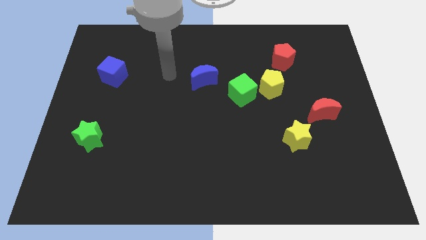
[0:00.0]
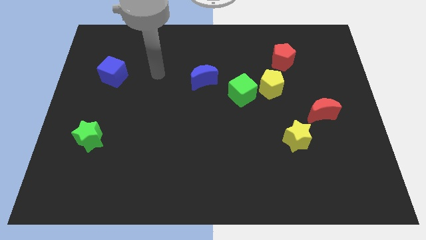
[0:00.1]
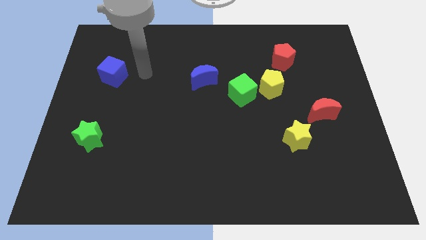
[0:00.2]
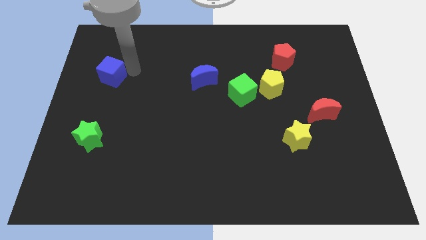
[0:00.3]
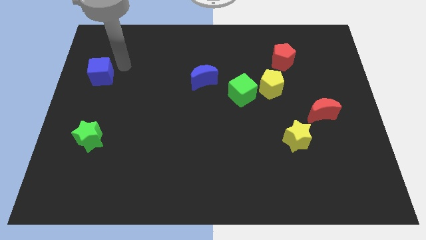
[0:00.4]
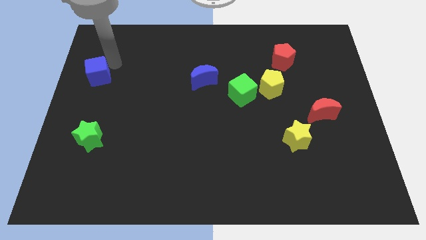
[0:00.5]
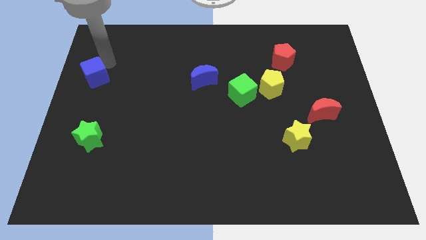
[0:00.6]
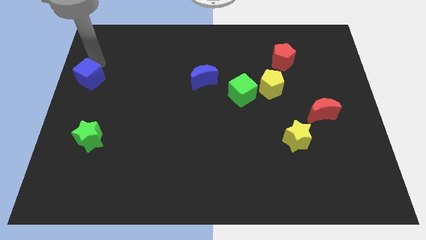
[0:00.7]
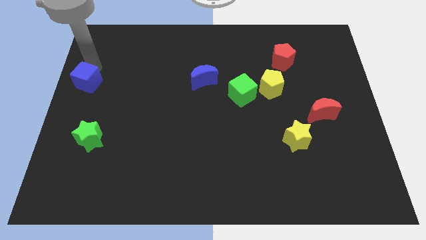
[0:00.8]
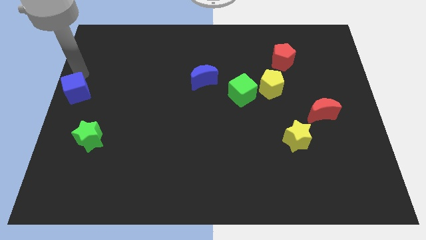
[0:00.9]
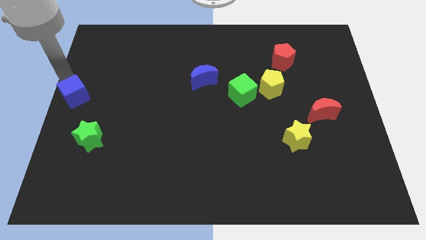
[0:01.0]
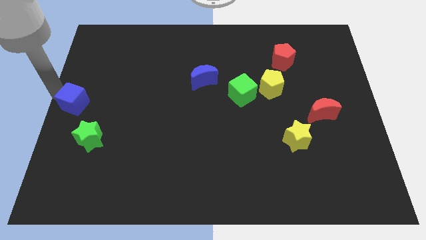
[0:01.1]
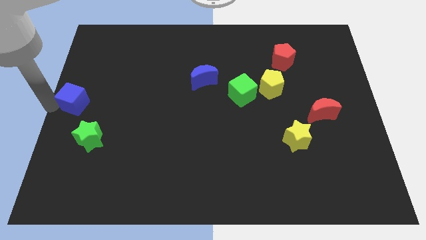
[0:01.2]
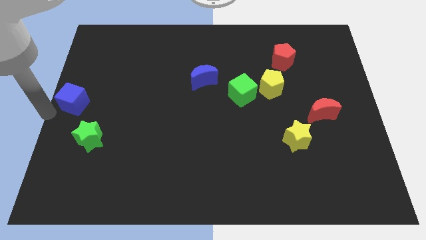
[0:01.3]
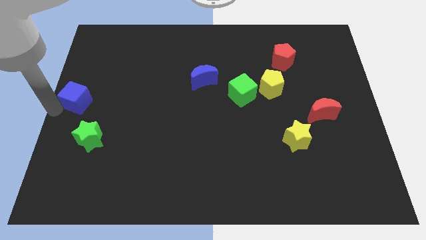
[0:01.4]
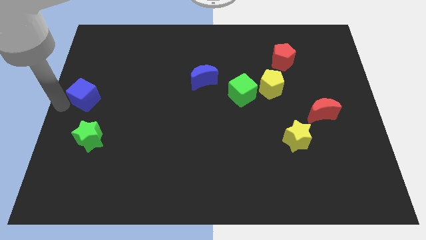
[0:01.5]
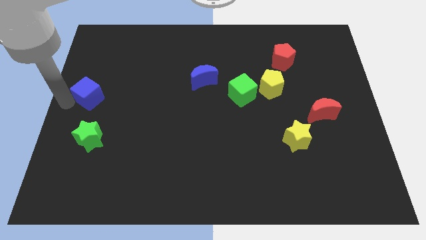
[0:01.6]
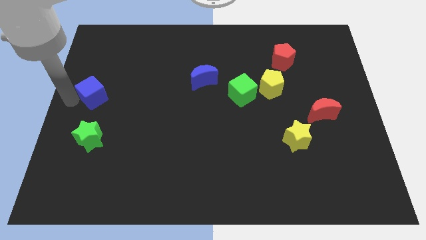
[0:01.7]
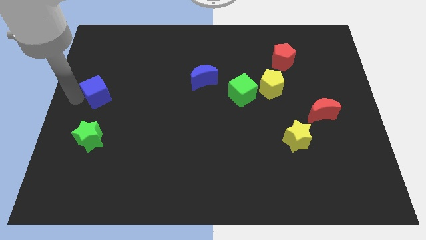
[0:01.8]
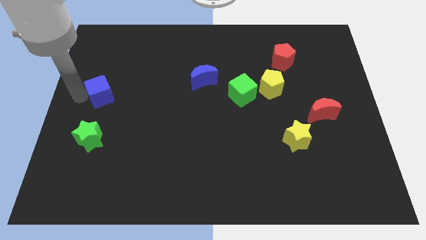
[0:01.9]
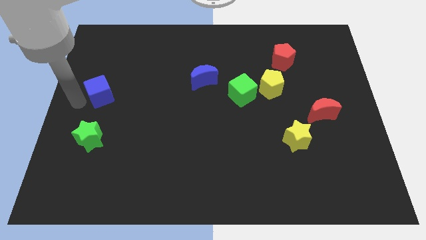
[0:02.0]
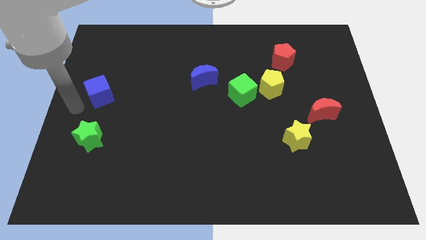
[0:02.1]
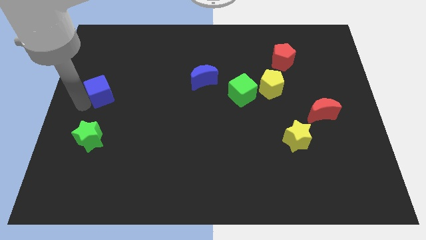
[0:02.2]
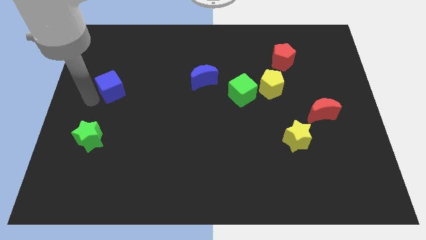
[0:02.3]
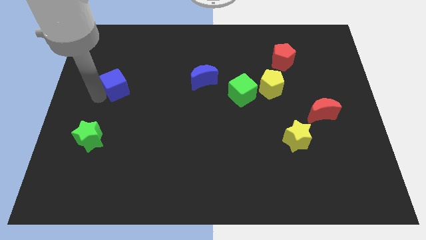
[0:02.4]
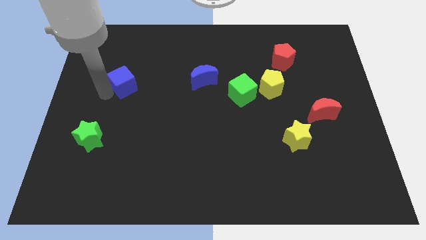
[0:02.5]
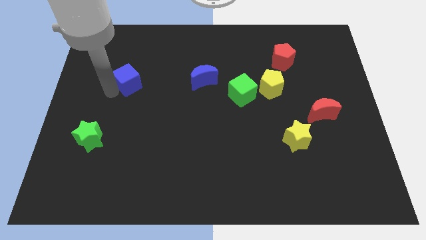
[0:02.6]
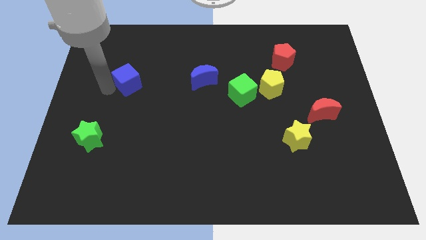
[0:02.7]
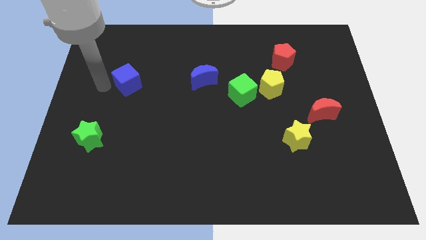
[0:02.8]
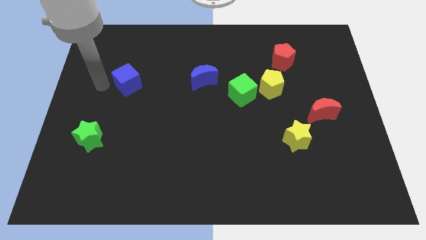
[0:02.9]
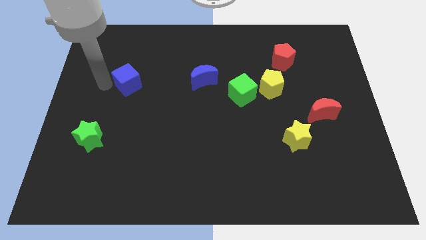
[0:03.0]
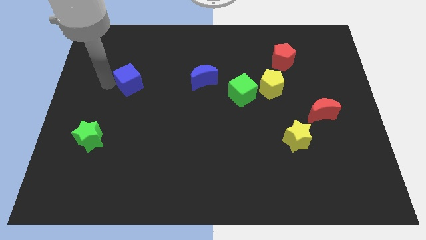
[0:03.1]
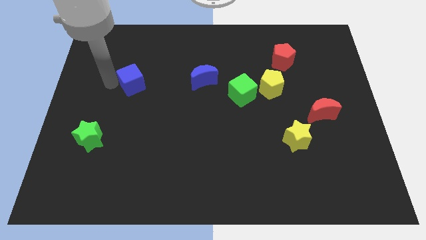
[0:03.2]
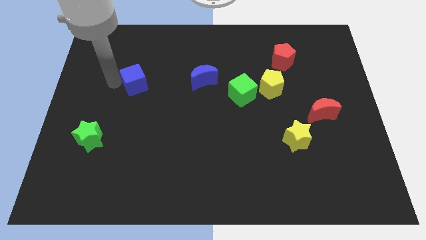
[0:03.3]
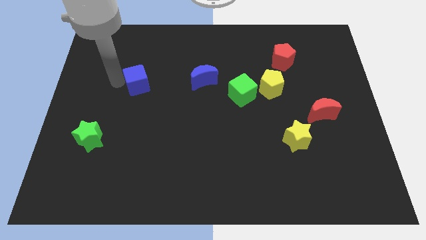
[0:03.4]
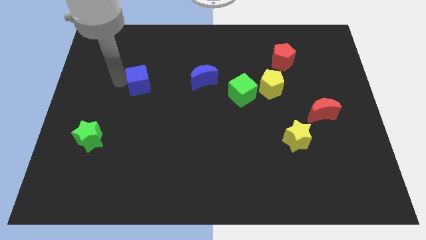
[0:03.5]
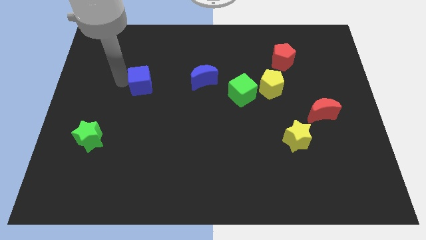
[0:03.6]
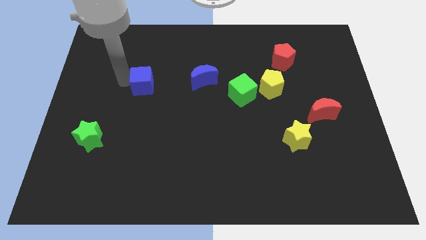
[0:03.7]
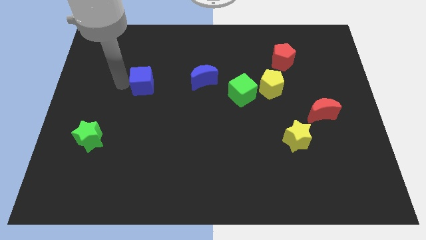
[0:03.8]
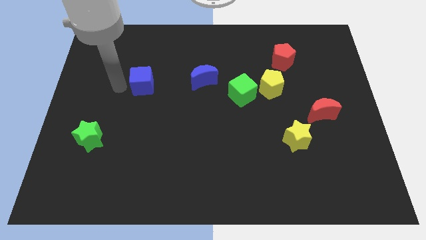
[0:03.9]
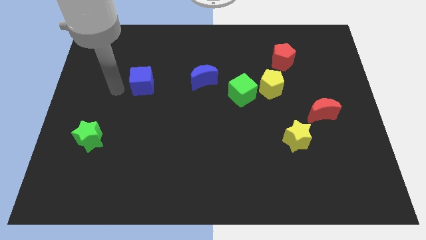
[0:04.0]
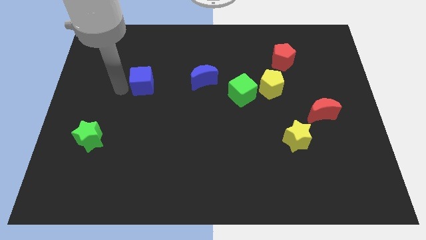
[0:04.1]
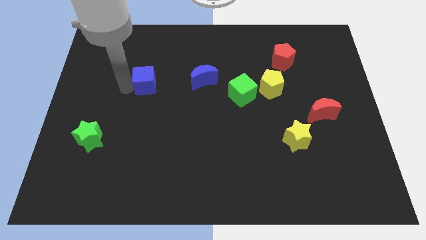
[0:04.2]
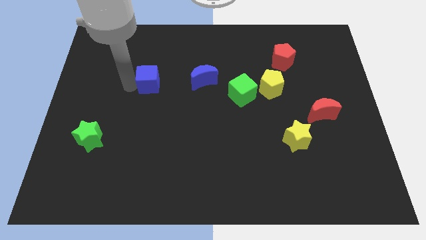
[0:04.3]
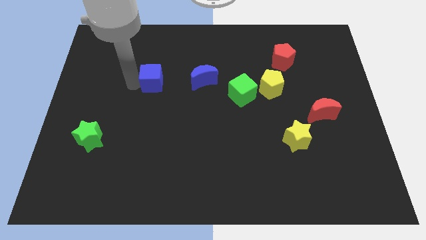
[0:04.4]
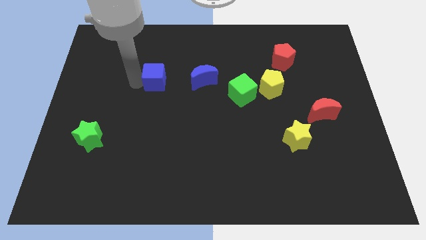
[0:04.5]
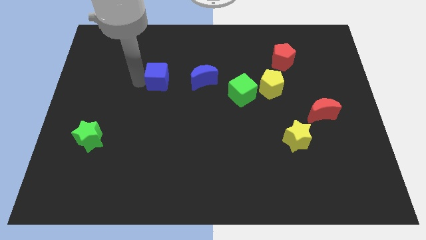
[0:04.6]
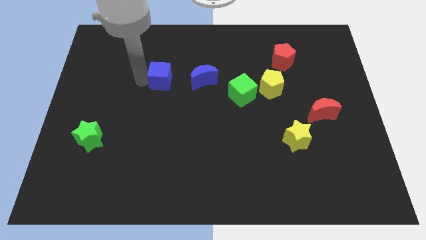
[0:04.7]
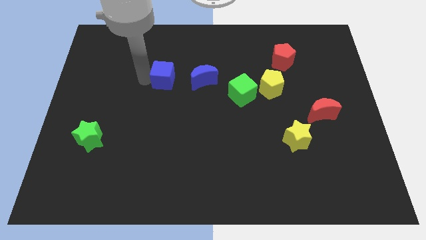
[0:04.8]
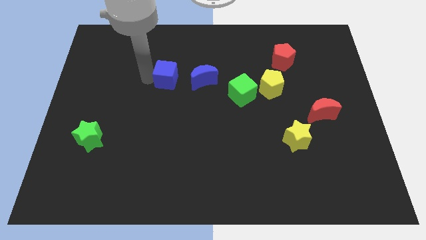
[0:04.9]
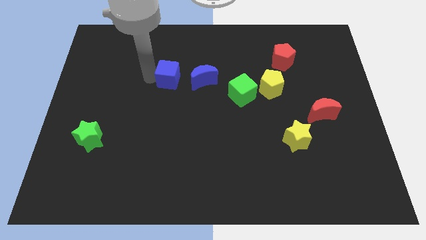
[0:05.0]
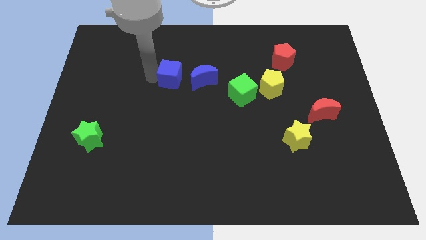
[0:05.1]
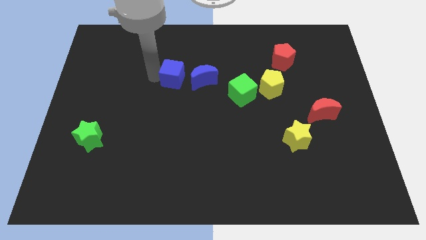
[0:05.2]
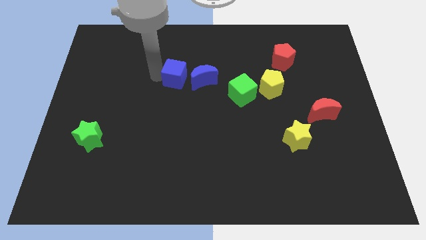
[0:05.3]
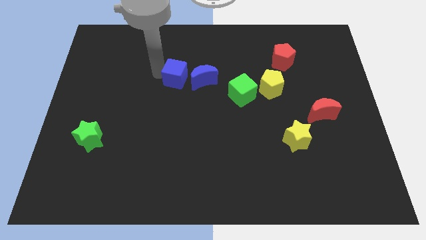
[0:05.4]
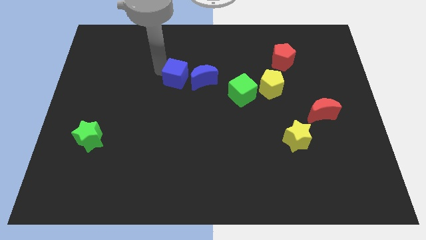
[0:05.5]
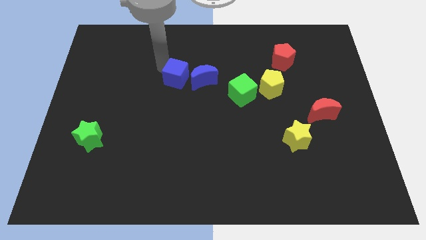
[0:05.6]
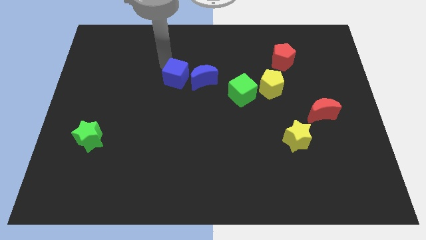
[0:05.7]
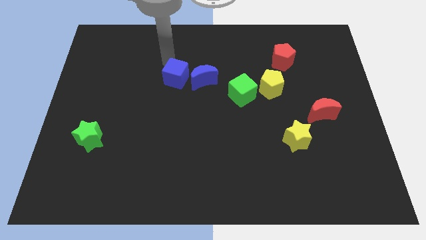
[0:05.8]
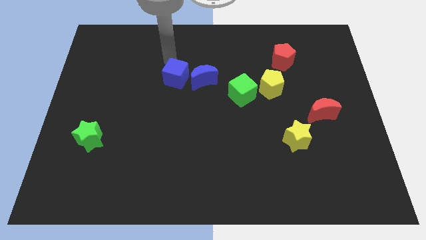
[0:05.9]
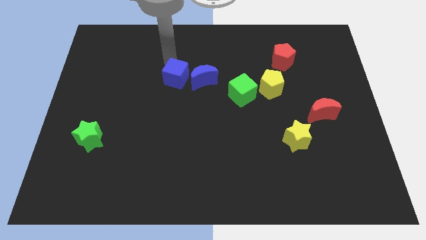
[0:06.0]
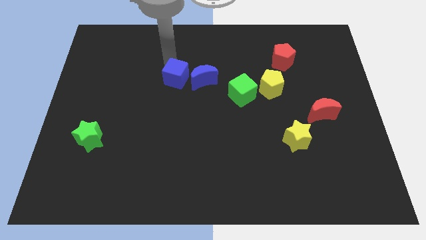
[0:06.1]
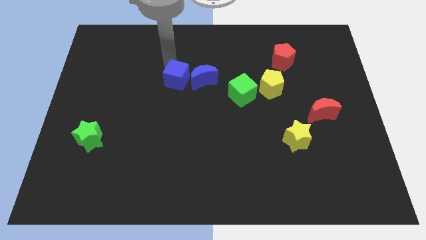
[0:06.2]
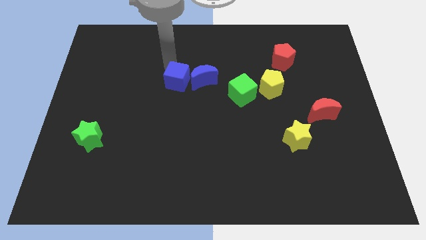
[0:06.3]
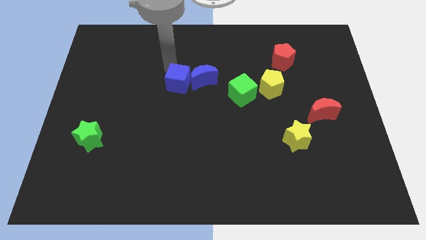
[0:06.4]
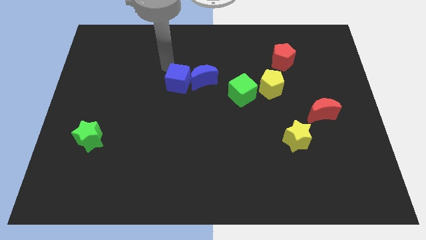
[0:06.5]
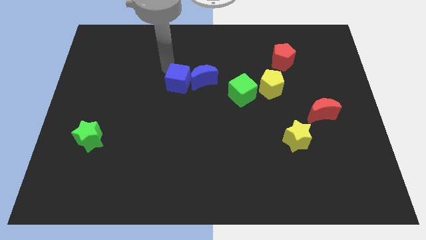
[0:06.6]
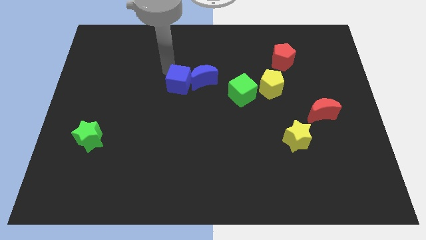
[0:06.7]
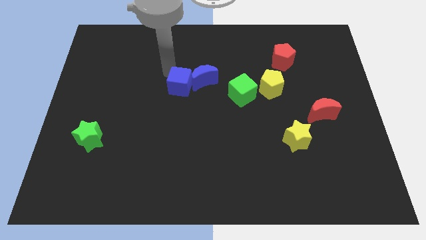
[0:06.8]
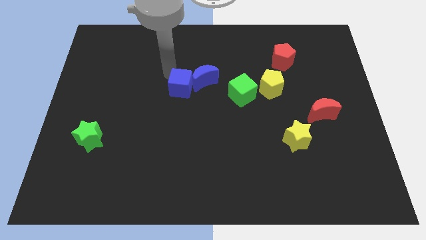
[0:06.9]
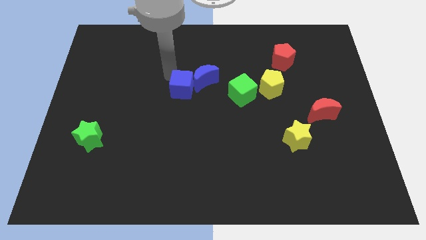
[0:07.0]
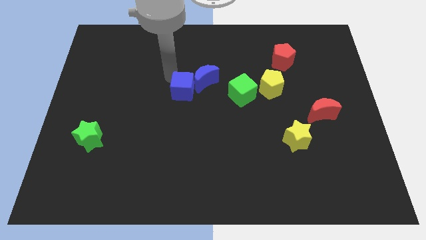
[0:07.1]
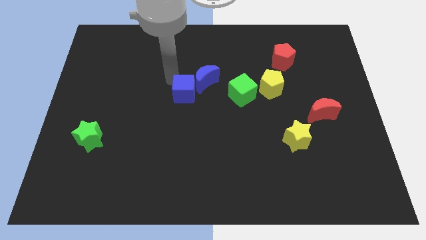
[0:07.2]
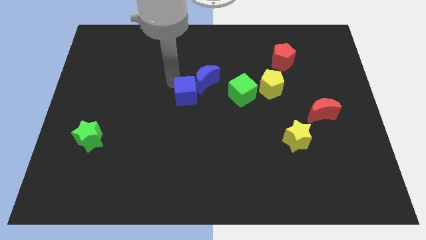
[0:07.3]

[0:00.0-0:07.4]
move the blue cube below the blue moon

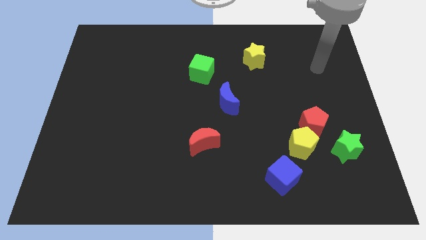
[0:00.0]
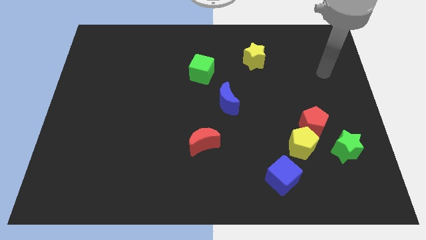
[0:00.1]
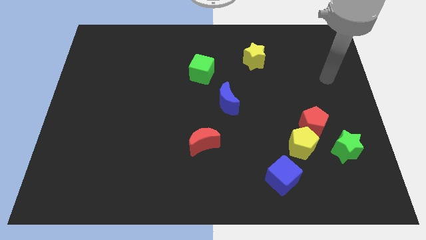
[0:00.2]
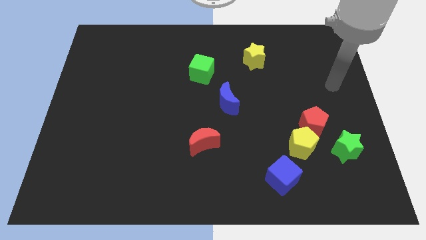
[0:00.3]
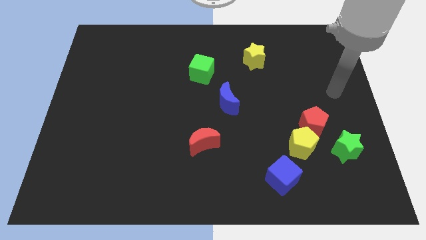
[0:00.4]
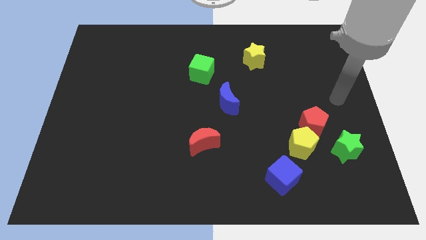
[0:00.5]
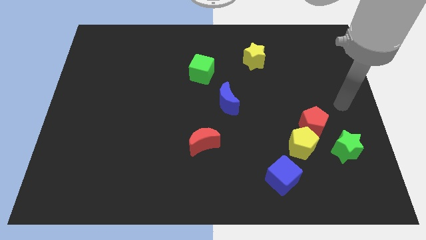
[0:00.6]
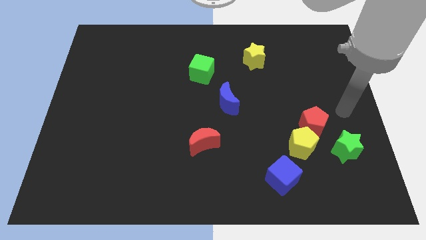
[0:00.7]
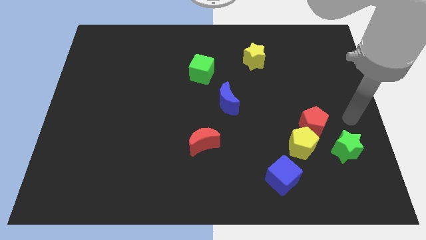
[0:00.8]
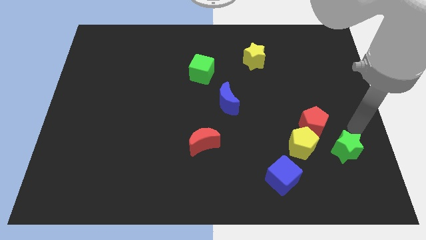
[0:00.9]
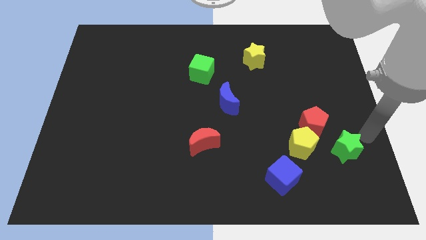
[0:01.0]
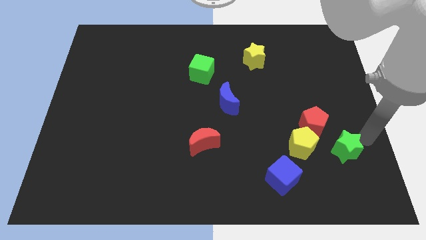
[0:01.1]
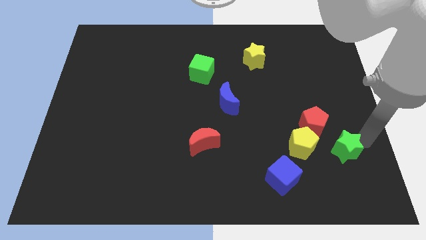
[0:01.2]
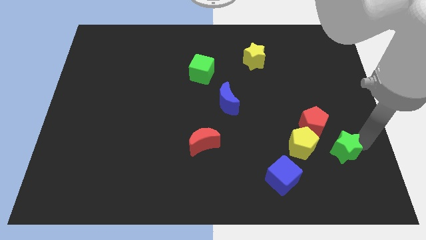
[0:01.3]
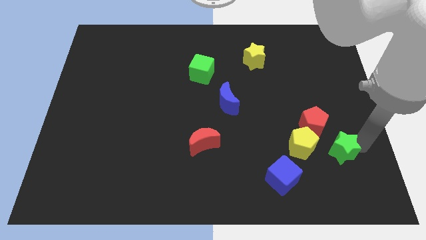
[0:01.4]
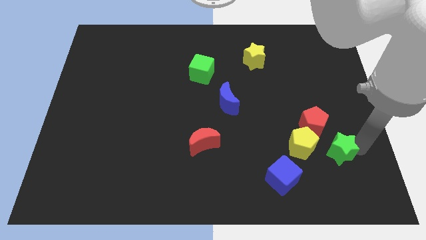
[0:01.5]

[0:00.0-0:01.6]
push the green star to the bottom side of the red pentagon
